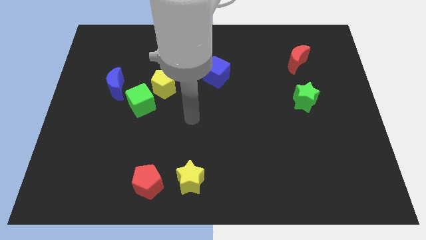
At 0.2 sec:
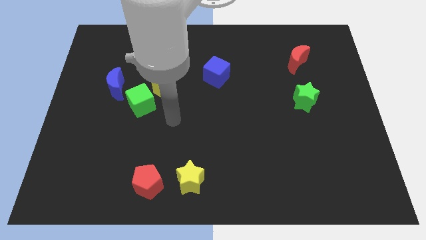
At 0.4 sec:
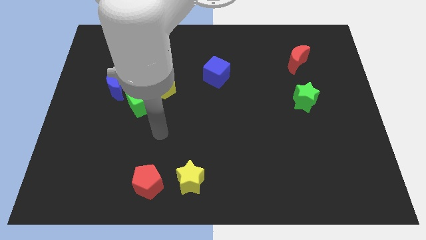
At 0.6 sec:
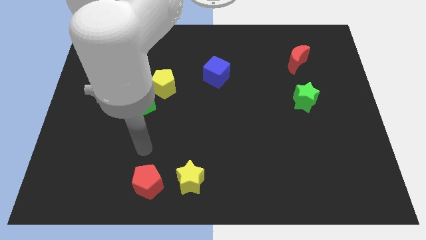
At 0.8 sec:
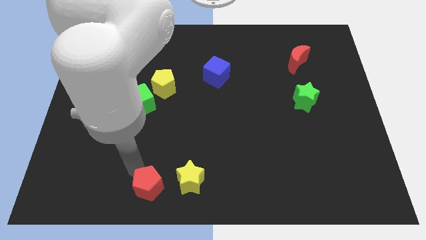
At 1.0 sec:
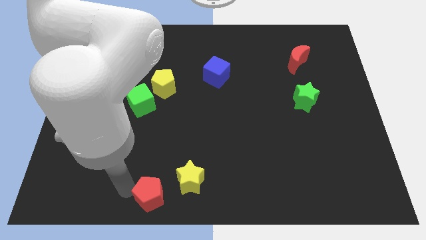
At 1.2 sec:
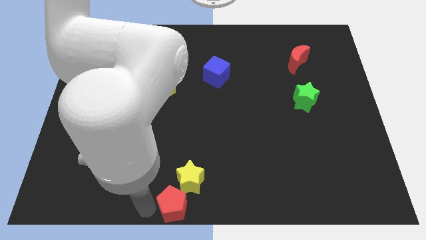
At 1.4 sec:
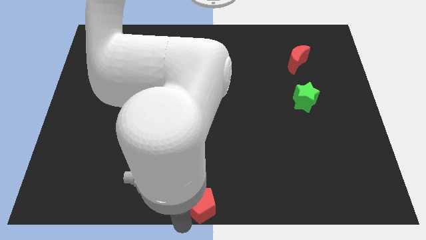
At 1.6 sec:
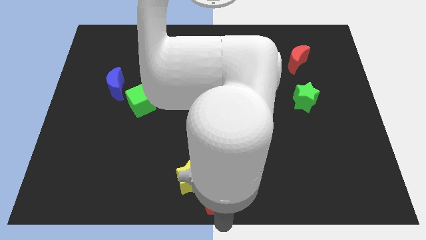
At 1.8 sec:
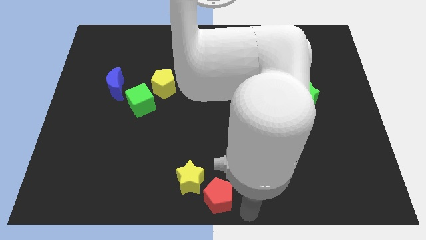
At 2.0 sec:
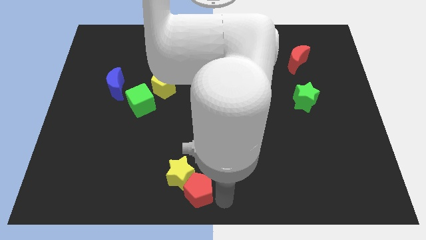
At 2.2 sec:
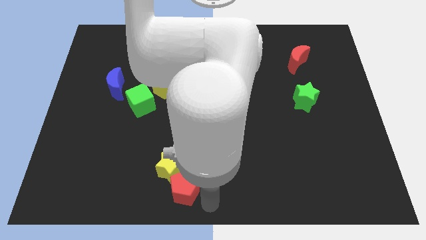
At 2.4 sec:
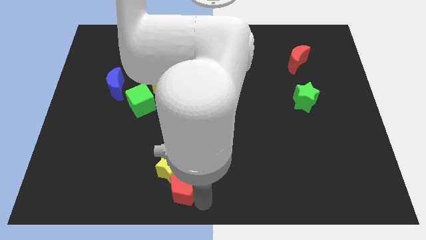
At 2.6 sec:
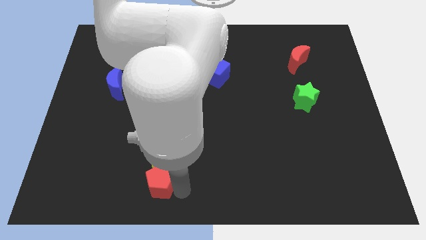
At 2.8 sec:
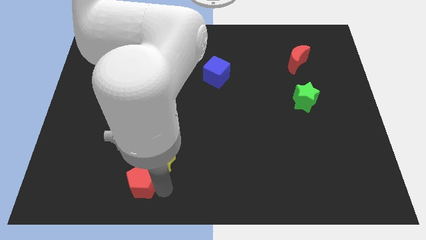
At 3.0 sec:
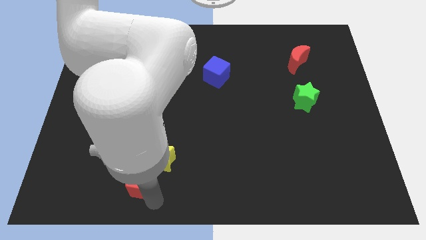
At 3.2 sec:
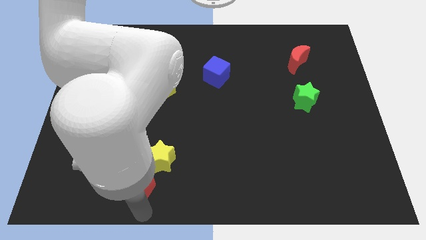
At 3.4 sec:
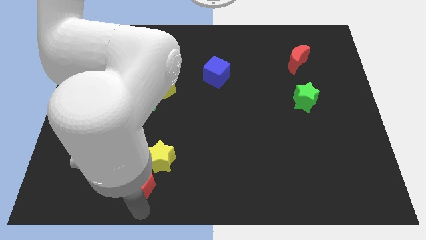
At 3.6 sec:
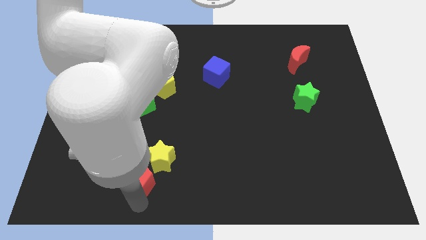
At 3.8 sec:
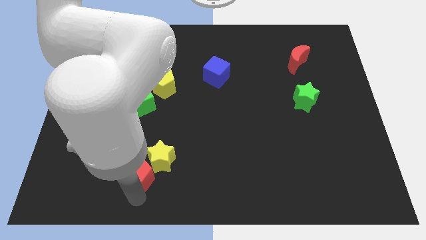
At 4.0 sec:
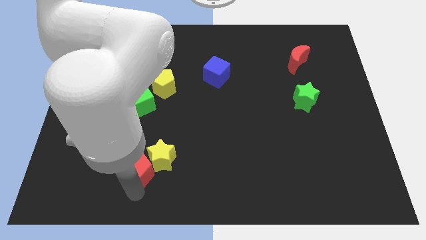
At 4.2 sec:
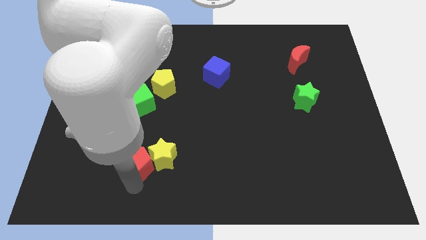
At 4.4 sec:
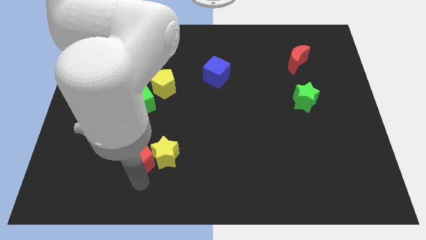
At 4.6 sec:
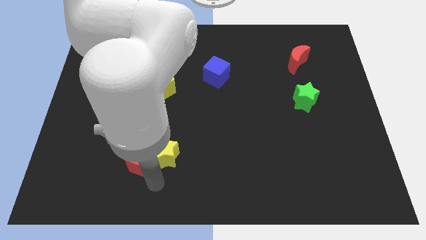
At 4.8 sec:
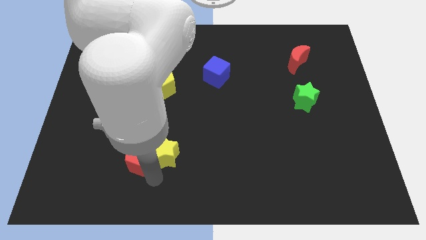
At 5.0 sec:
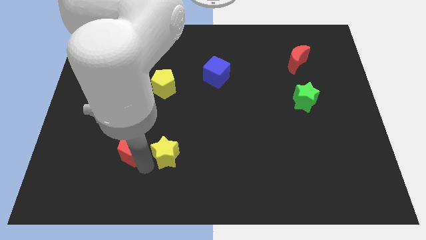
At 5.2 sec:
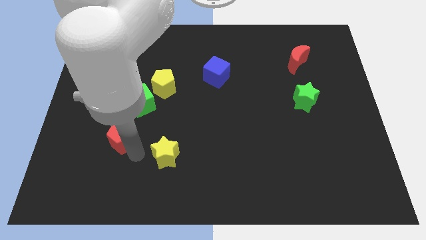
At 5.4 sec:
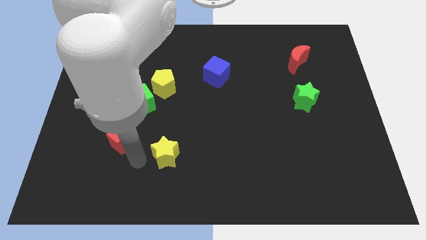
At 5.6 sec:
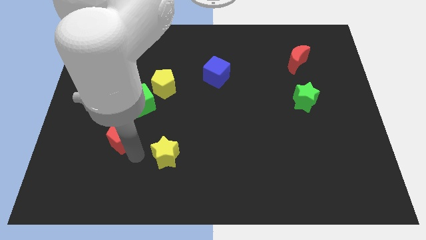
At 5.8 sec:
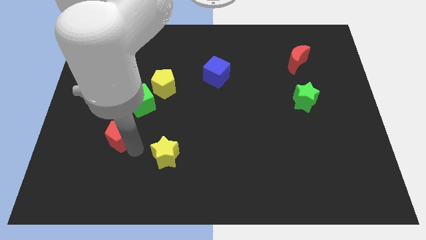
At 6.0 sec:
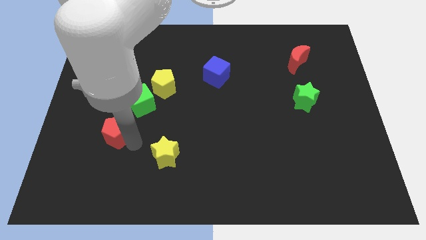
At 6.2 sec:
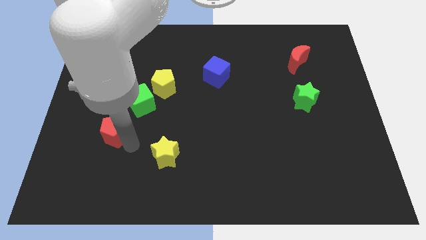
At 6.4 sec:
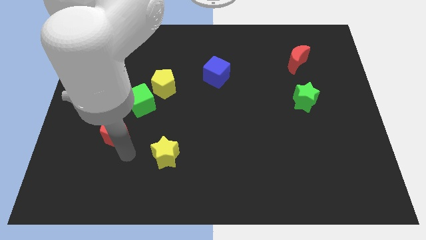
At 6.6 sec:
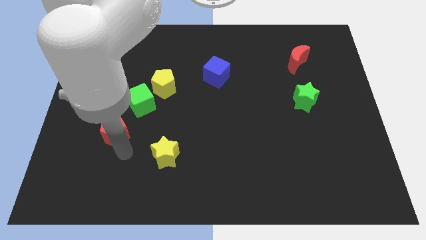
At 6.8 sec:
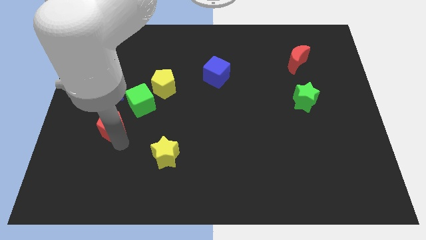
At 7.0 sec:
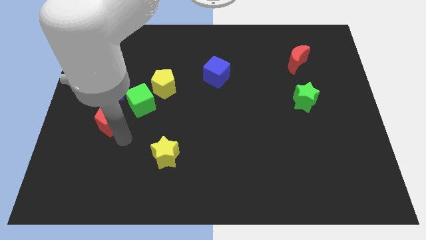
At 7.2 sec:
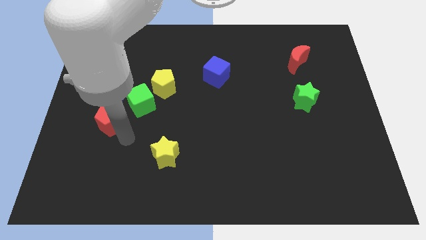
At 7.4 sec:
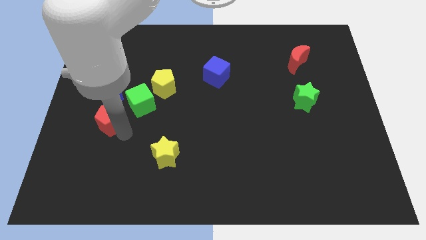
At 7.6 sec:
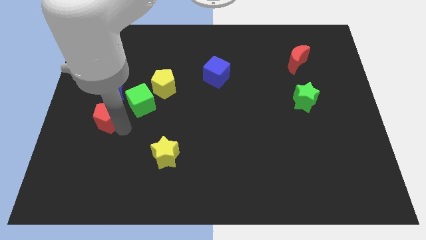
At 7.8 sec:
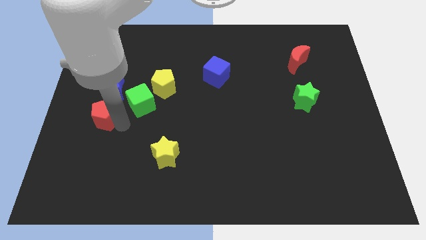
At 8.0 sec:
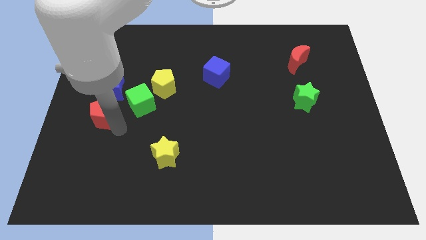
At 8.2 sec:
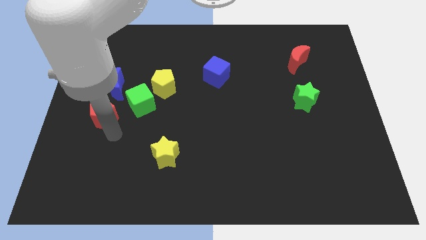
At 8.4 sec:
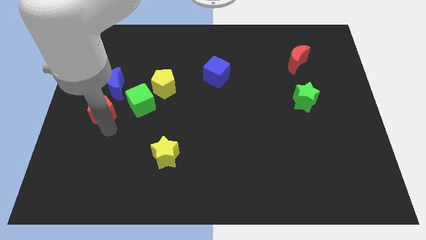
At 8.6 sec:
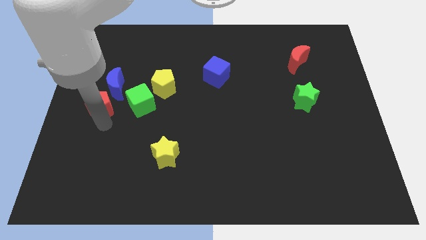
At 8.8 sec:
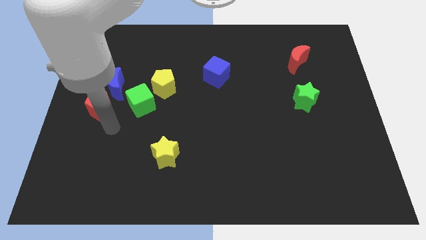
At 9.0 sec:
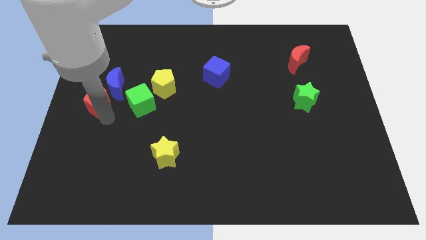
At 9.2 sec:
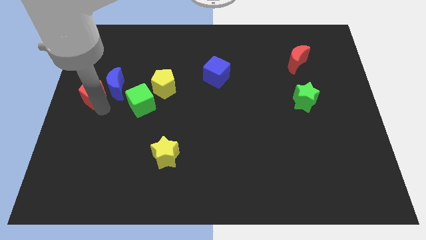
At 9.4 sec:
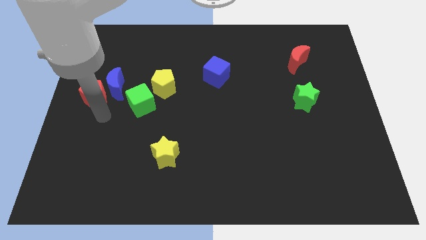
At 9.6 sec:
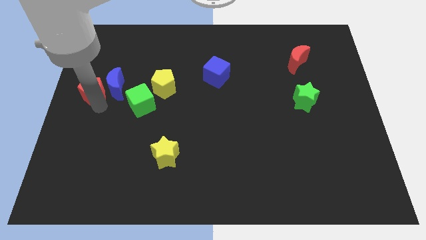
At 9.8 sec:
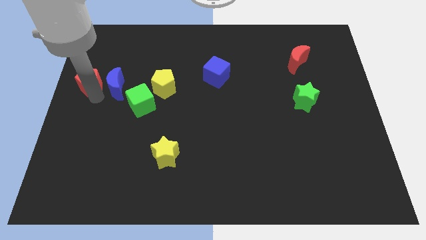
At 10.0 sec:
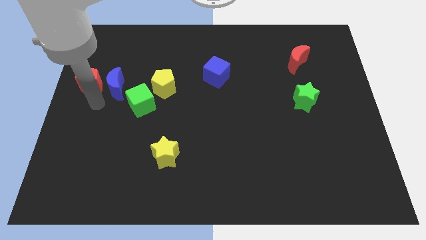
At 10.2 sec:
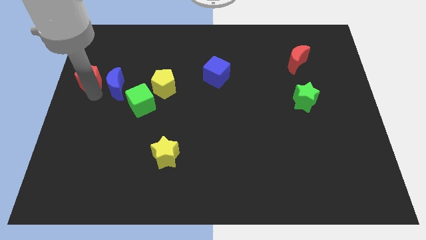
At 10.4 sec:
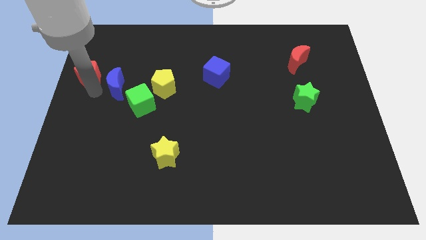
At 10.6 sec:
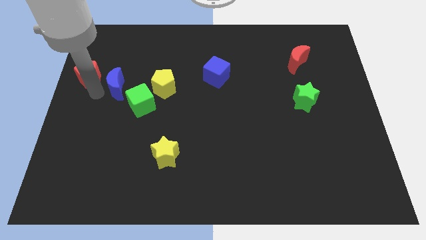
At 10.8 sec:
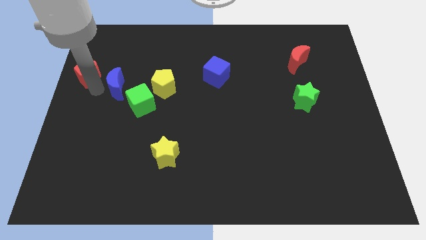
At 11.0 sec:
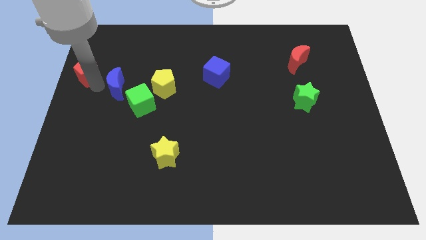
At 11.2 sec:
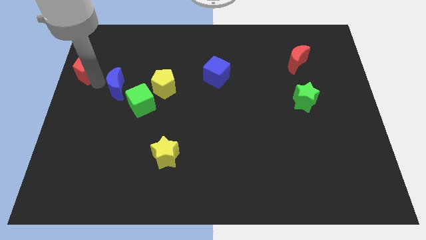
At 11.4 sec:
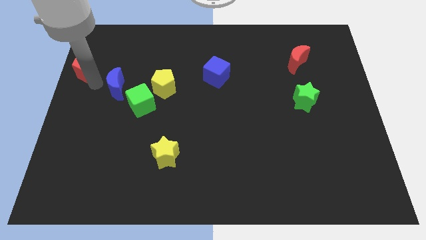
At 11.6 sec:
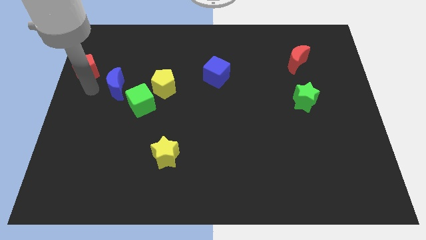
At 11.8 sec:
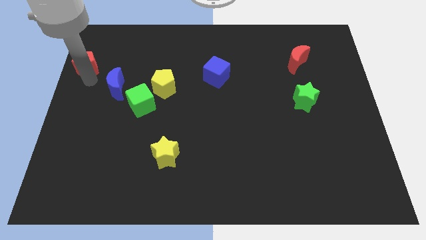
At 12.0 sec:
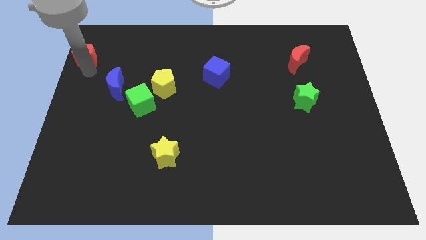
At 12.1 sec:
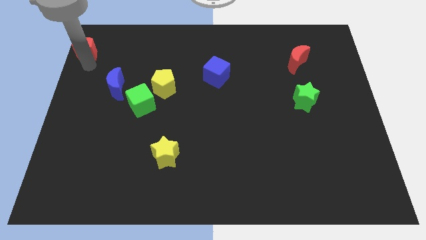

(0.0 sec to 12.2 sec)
put the red pentagon to the top left corner
